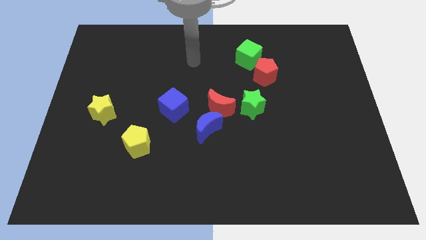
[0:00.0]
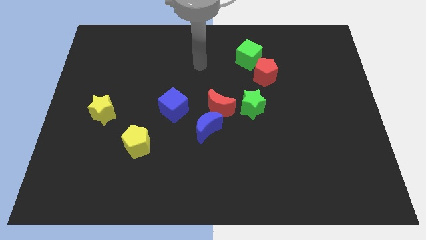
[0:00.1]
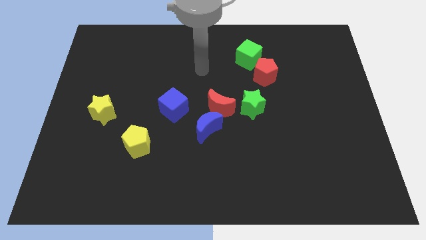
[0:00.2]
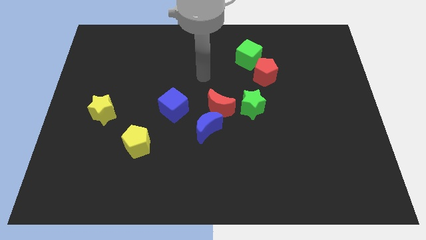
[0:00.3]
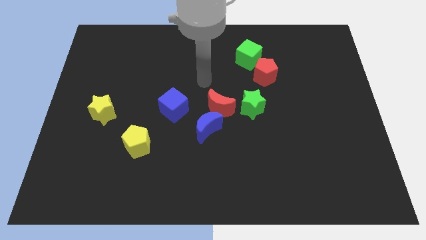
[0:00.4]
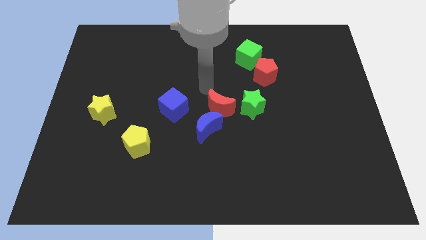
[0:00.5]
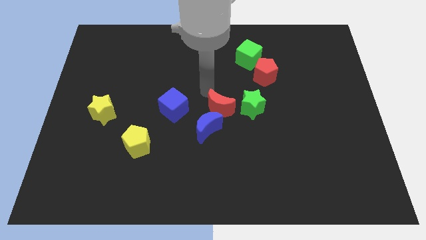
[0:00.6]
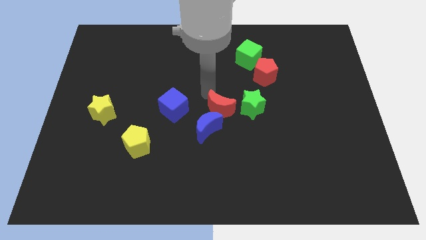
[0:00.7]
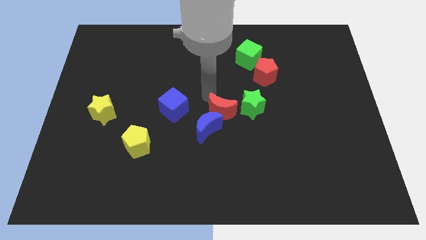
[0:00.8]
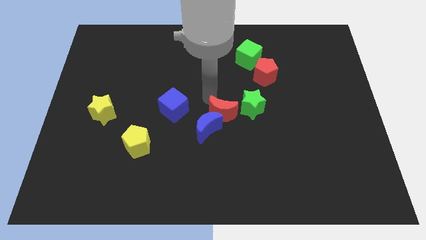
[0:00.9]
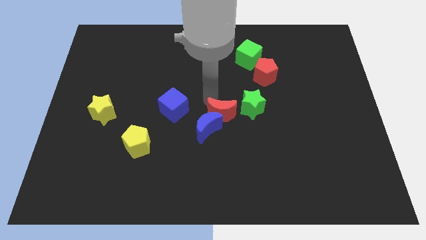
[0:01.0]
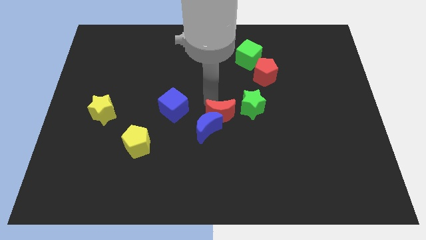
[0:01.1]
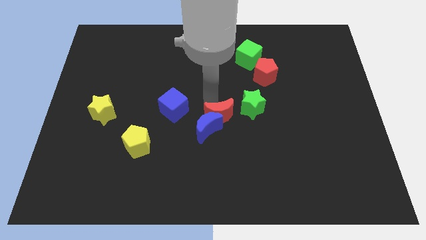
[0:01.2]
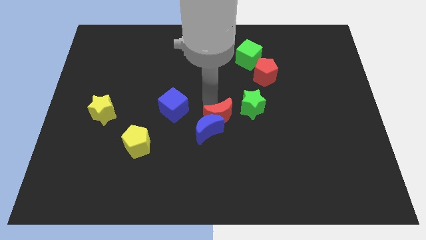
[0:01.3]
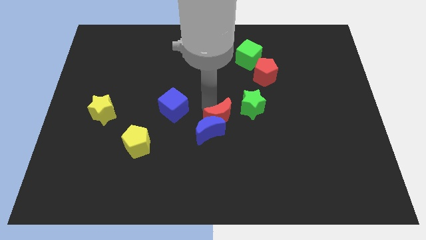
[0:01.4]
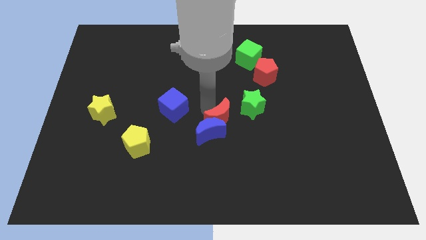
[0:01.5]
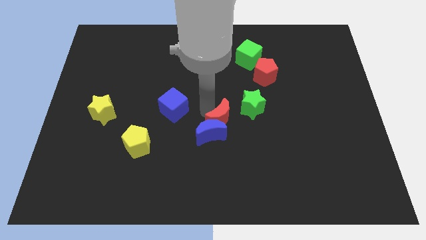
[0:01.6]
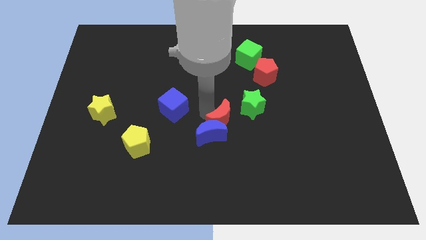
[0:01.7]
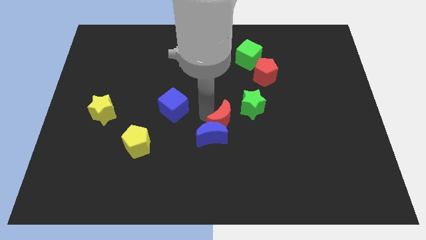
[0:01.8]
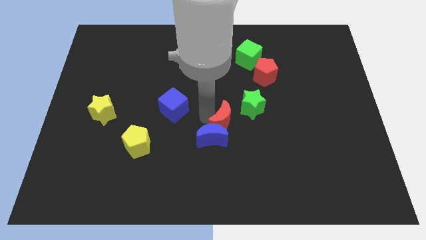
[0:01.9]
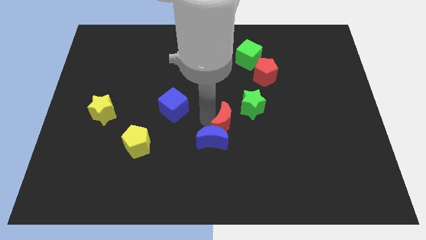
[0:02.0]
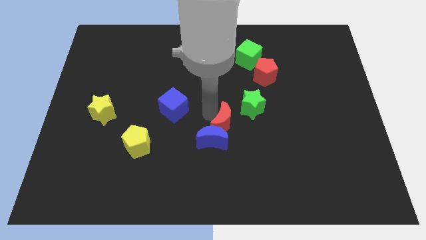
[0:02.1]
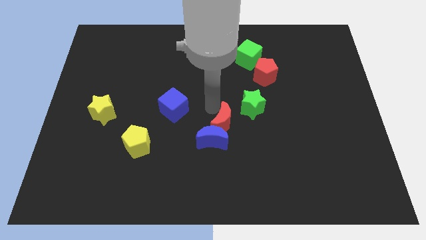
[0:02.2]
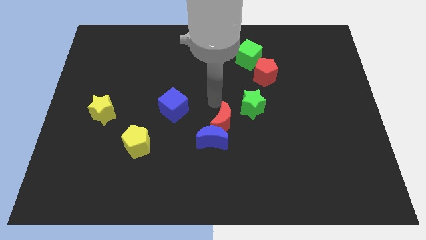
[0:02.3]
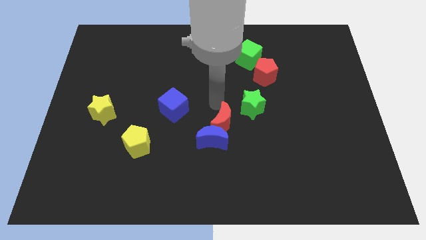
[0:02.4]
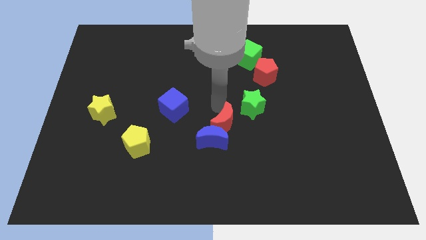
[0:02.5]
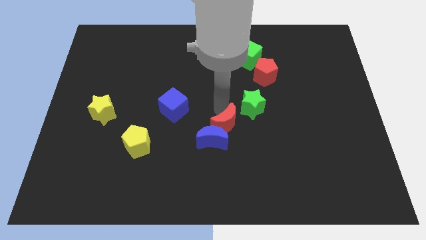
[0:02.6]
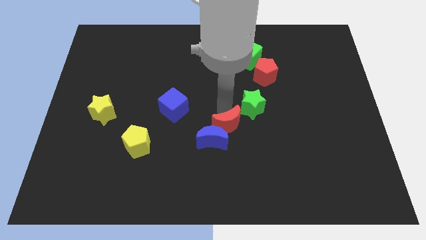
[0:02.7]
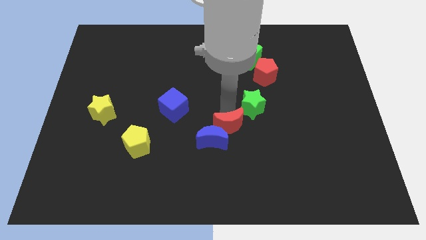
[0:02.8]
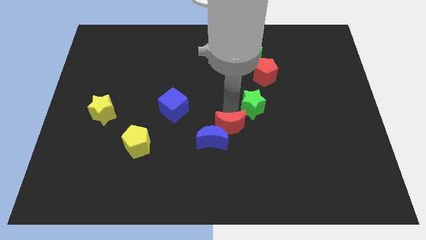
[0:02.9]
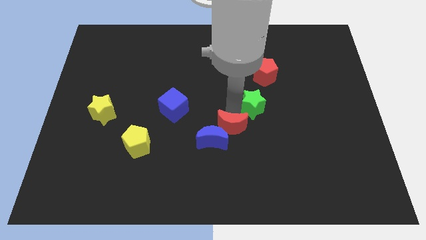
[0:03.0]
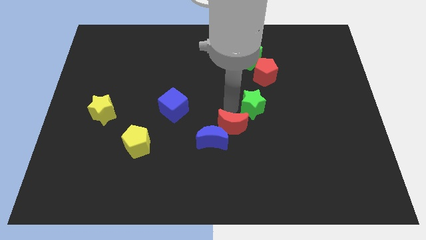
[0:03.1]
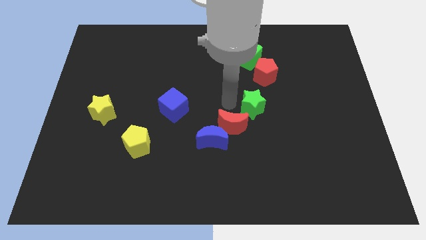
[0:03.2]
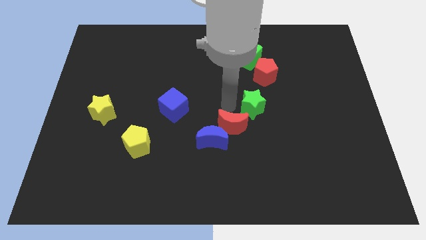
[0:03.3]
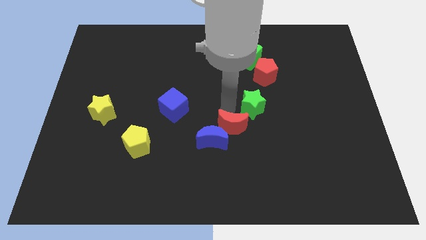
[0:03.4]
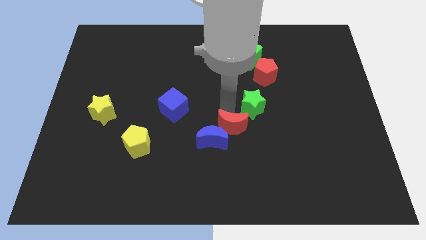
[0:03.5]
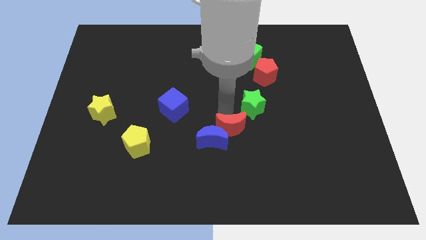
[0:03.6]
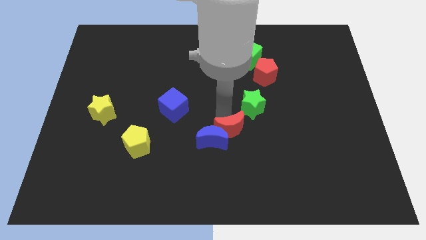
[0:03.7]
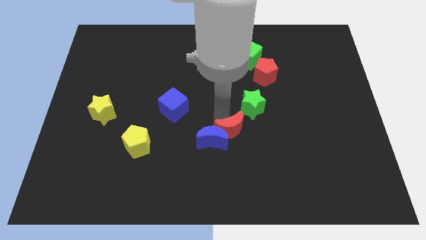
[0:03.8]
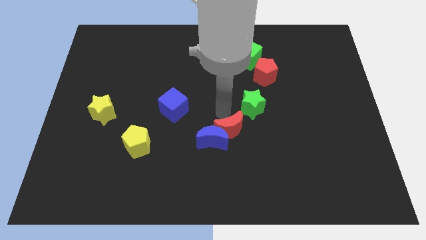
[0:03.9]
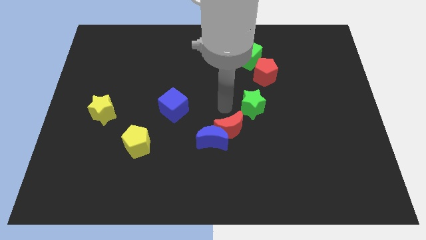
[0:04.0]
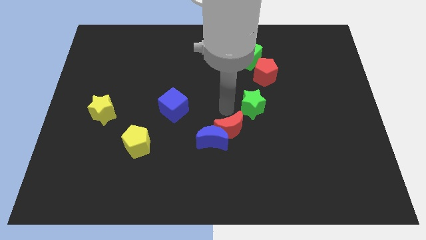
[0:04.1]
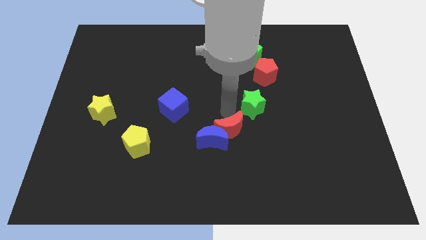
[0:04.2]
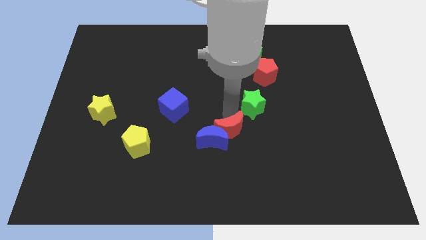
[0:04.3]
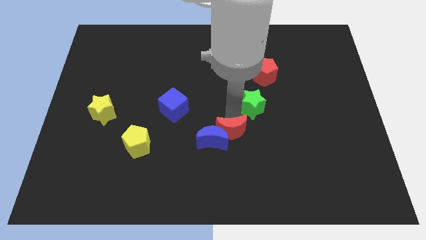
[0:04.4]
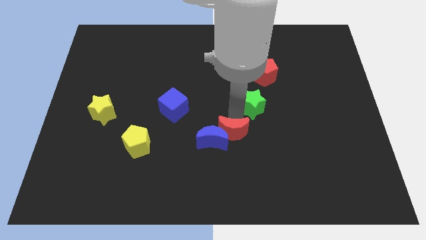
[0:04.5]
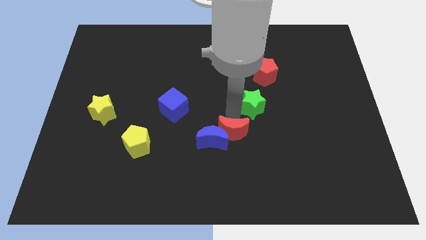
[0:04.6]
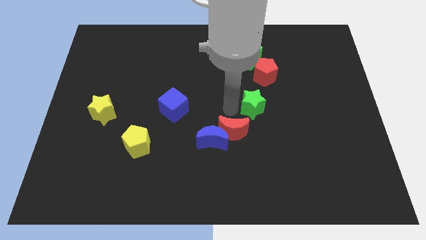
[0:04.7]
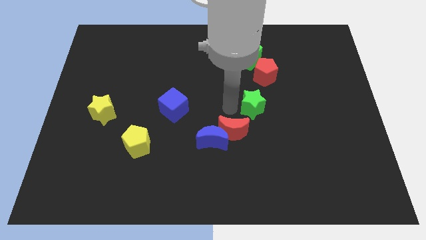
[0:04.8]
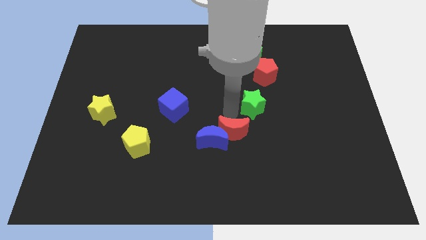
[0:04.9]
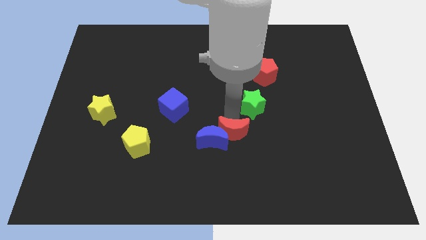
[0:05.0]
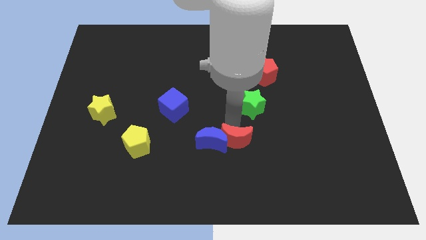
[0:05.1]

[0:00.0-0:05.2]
slide the red moon diagonally down and to the right of the blue moon
